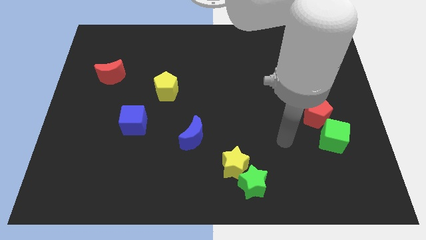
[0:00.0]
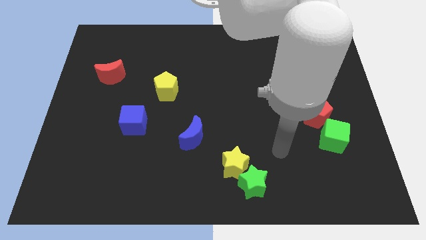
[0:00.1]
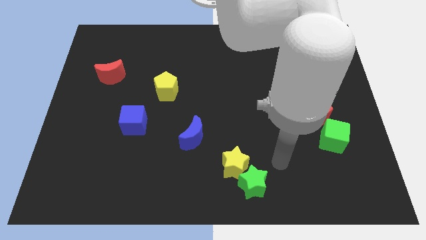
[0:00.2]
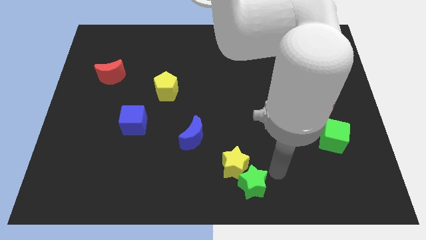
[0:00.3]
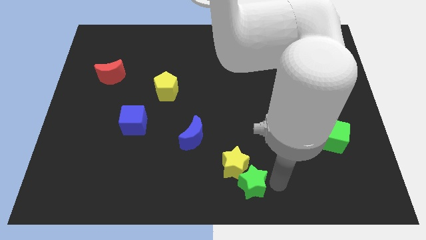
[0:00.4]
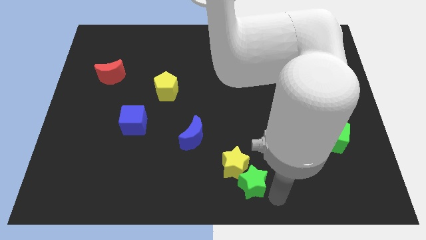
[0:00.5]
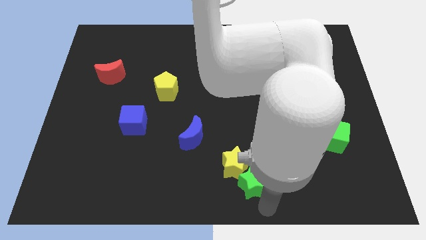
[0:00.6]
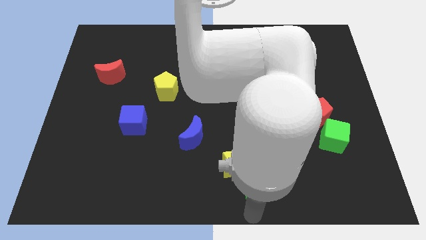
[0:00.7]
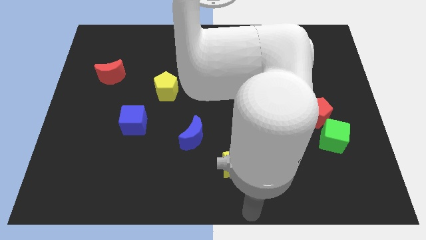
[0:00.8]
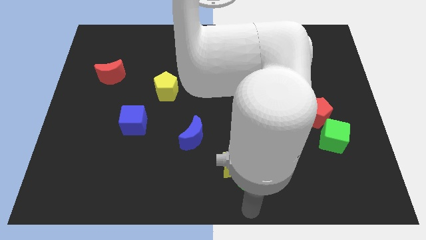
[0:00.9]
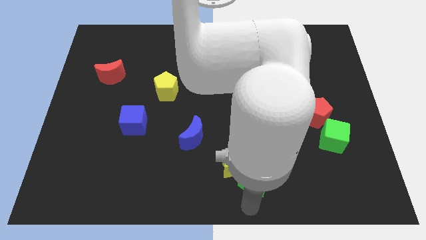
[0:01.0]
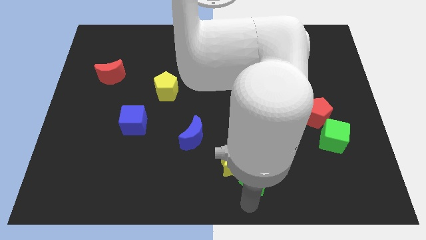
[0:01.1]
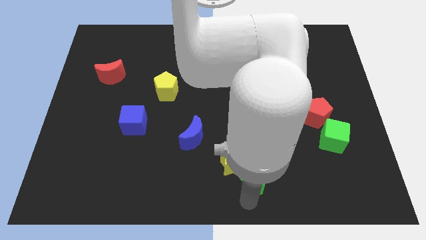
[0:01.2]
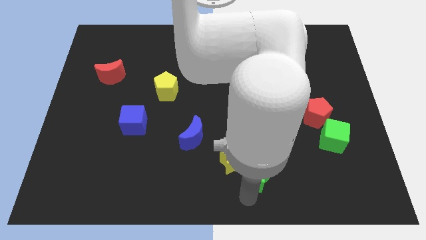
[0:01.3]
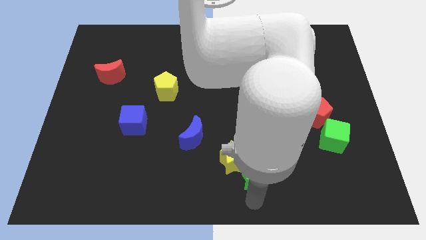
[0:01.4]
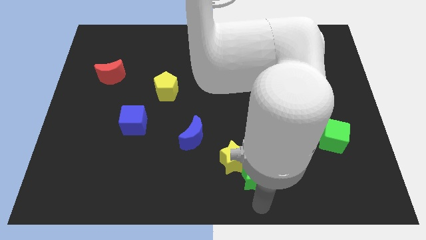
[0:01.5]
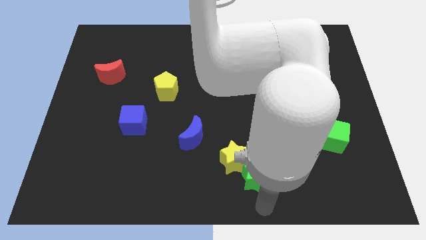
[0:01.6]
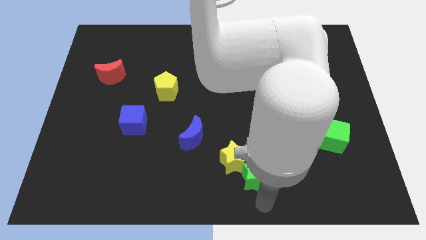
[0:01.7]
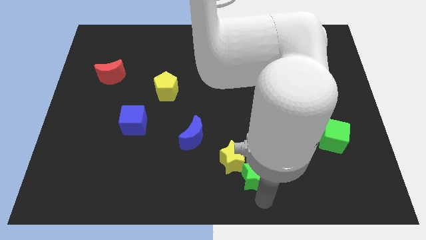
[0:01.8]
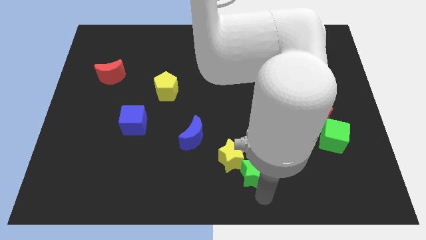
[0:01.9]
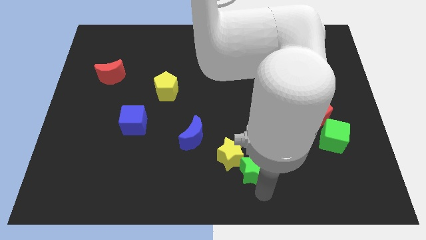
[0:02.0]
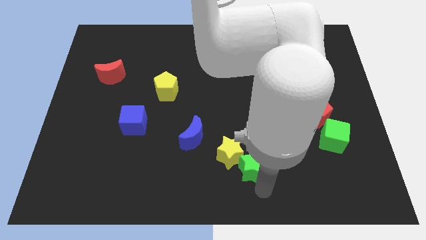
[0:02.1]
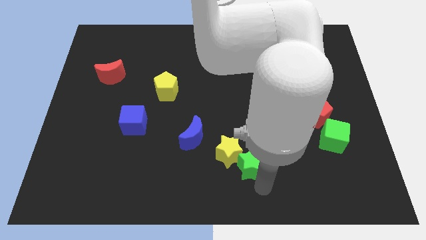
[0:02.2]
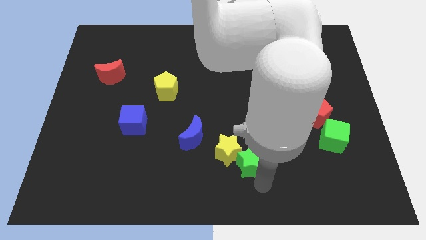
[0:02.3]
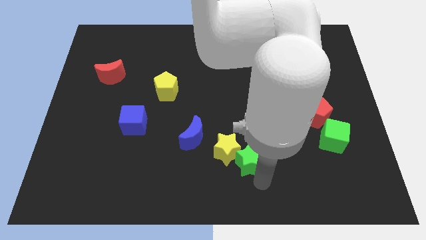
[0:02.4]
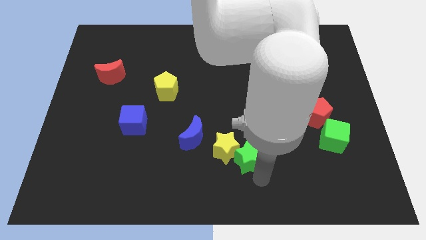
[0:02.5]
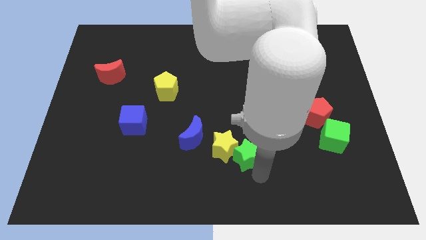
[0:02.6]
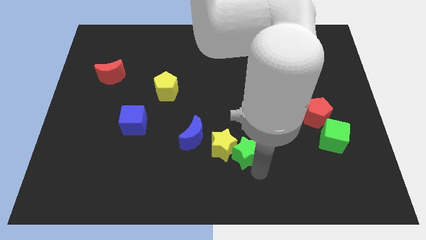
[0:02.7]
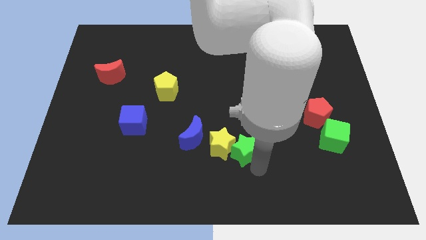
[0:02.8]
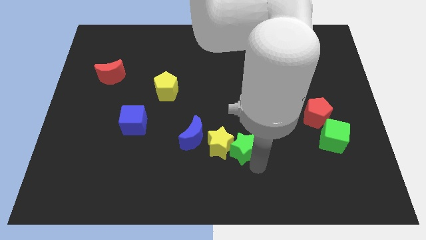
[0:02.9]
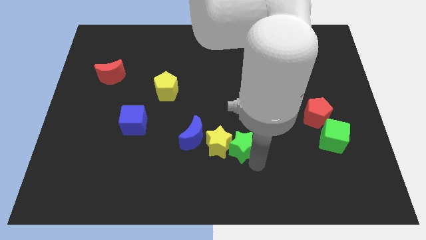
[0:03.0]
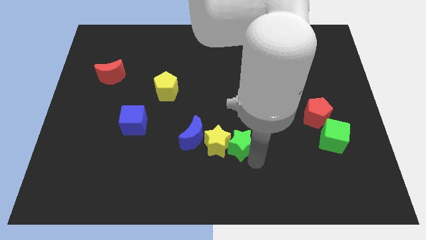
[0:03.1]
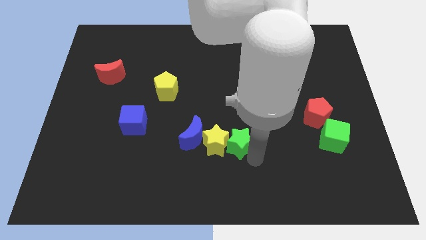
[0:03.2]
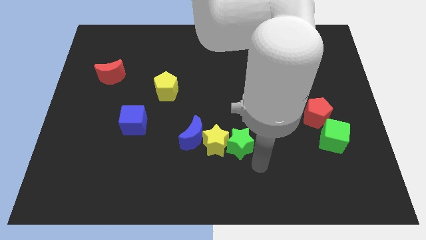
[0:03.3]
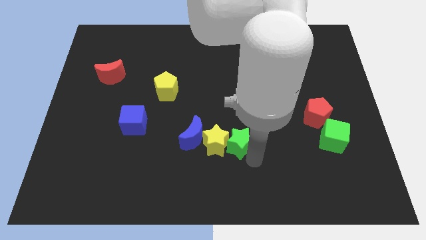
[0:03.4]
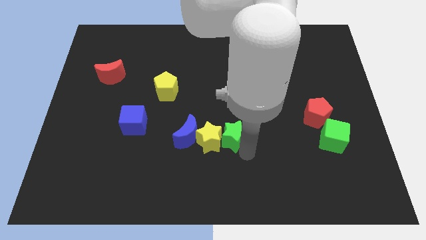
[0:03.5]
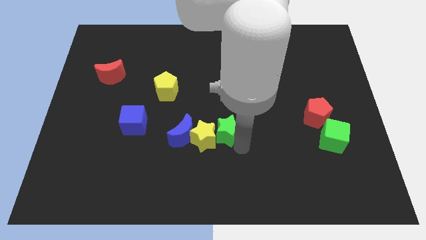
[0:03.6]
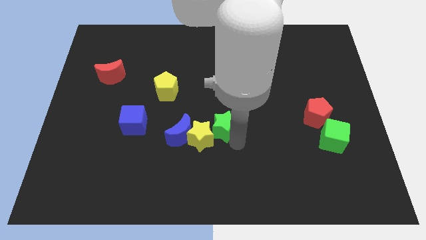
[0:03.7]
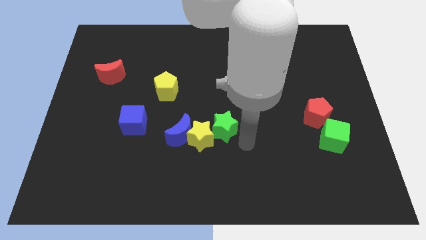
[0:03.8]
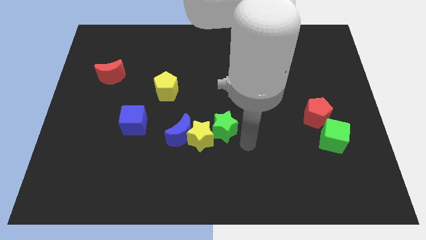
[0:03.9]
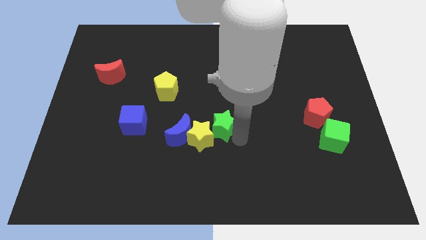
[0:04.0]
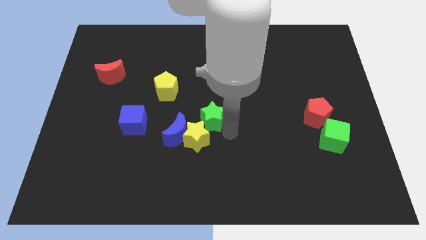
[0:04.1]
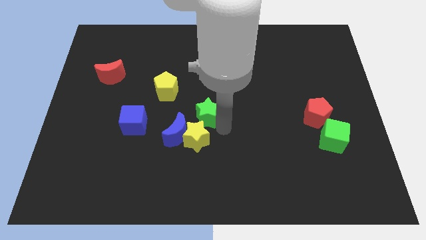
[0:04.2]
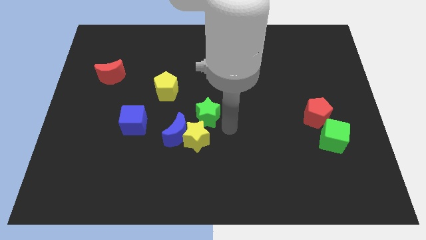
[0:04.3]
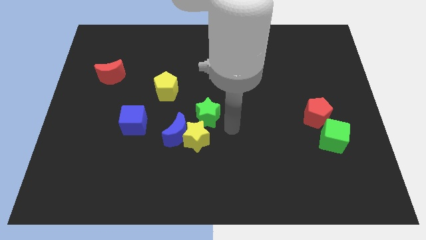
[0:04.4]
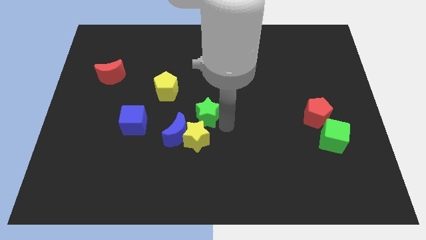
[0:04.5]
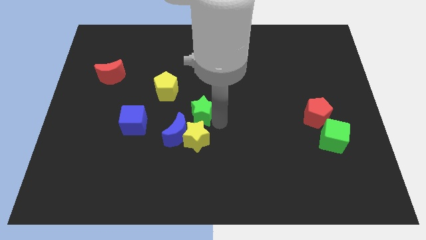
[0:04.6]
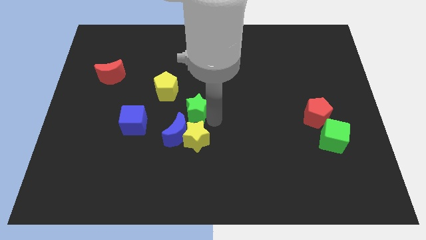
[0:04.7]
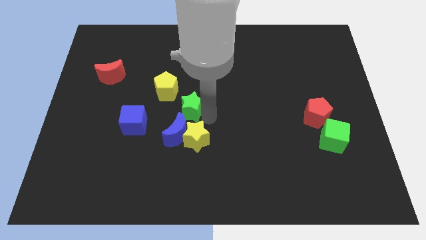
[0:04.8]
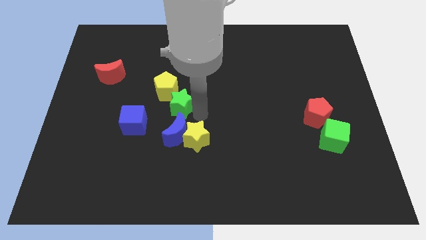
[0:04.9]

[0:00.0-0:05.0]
slide the green star next to the yellow pentagon

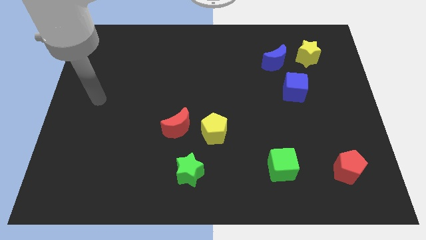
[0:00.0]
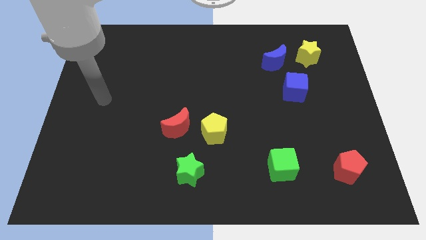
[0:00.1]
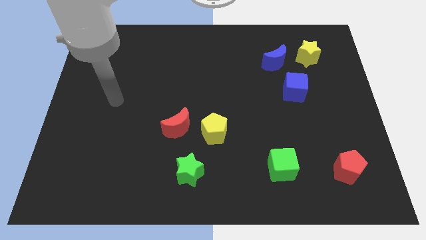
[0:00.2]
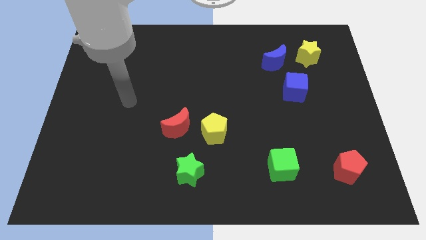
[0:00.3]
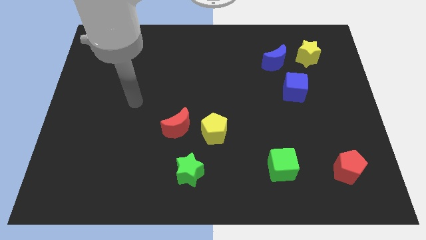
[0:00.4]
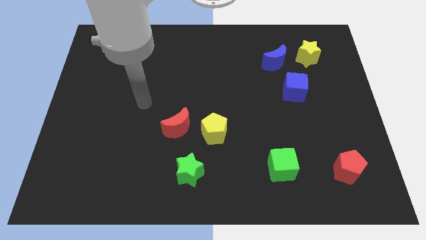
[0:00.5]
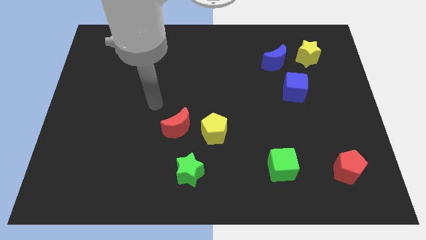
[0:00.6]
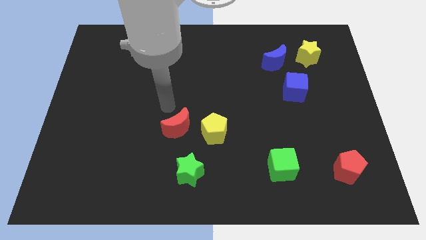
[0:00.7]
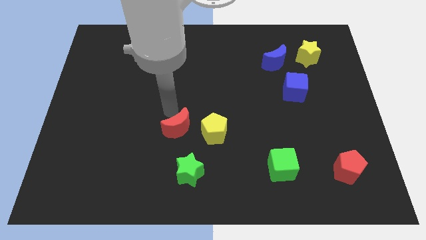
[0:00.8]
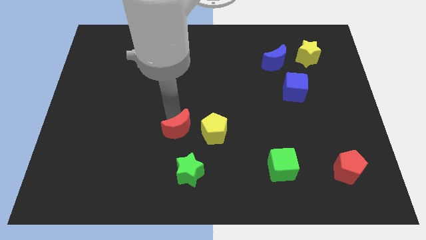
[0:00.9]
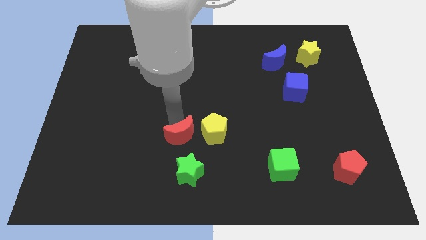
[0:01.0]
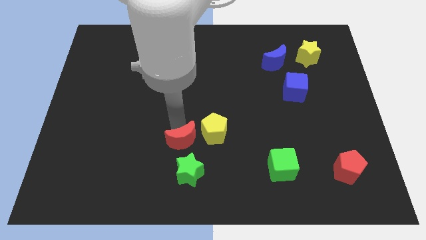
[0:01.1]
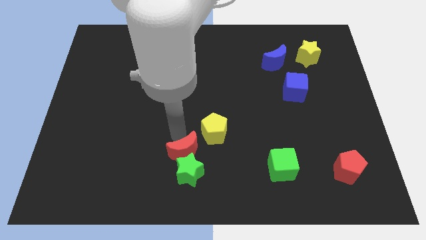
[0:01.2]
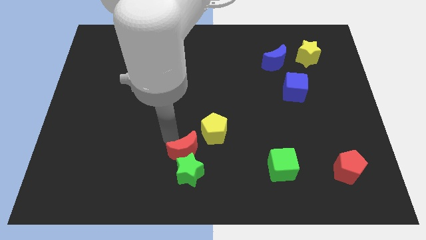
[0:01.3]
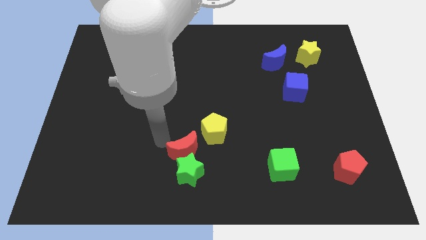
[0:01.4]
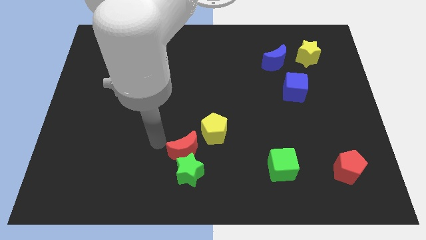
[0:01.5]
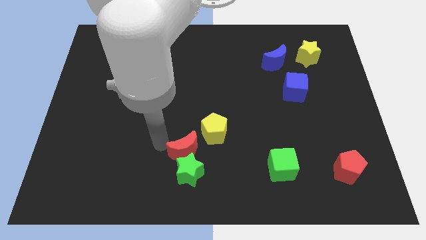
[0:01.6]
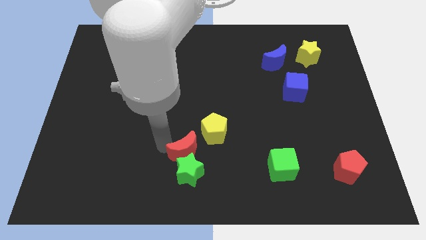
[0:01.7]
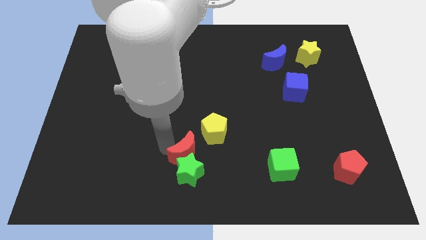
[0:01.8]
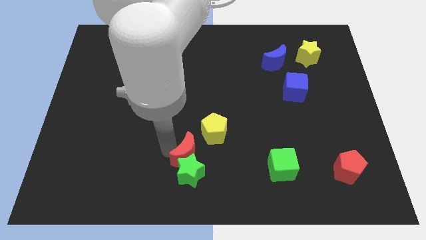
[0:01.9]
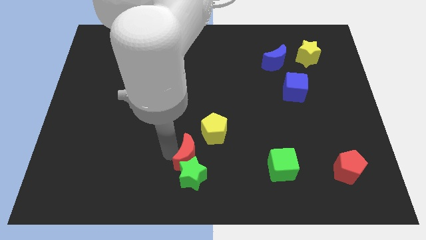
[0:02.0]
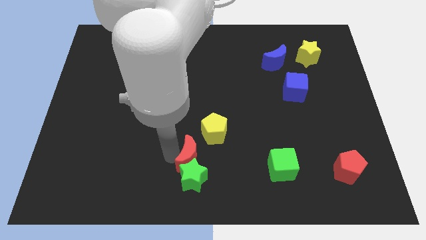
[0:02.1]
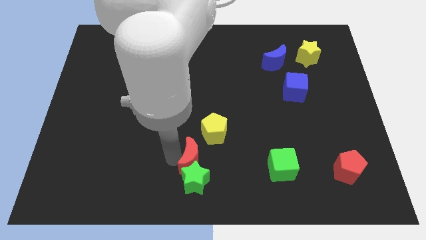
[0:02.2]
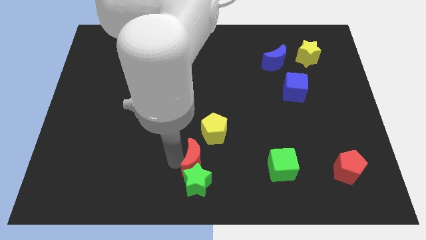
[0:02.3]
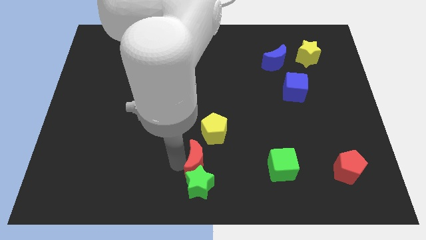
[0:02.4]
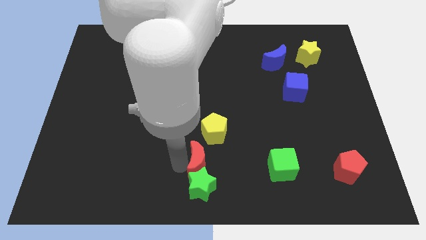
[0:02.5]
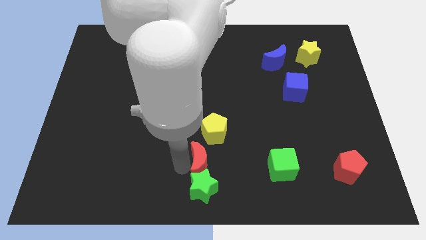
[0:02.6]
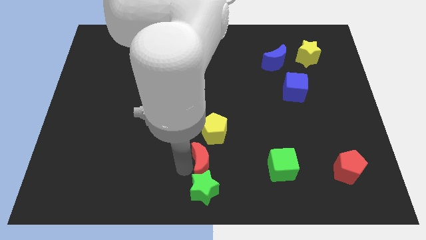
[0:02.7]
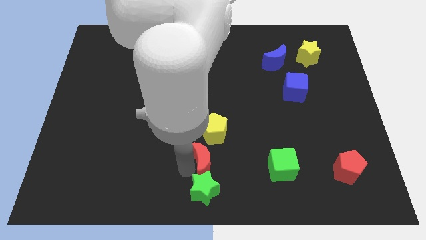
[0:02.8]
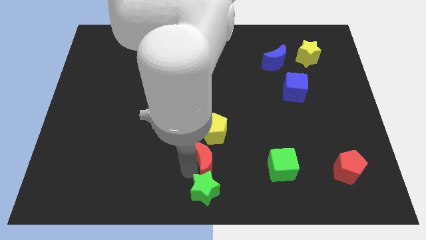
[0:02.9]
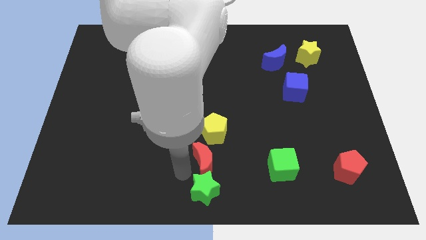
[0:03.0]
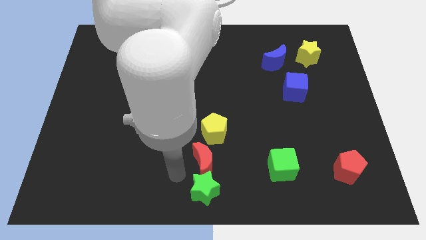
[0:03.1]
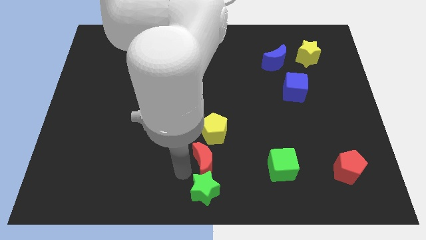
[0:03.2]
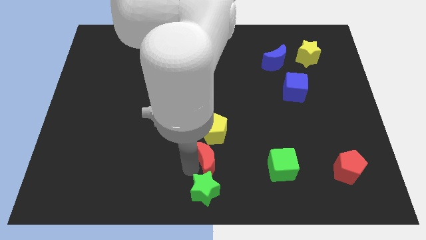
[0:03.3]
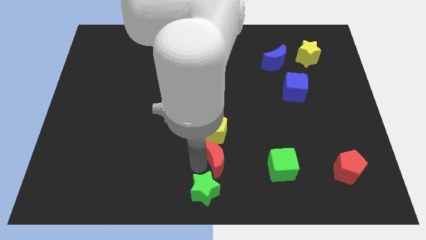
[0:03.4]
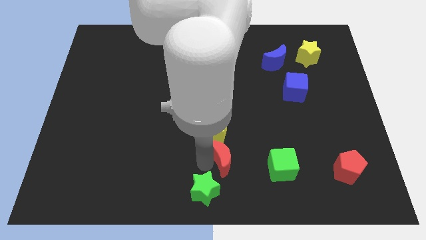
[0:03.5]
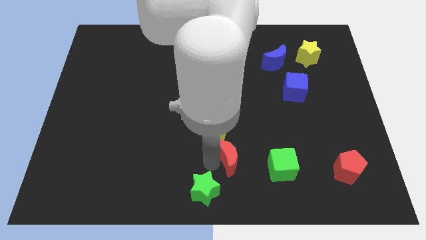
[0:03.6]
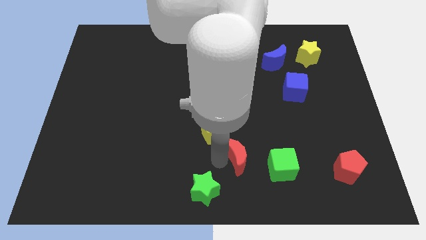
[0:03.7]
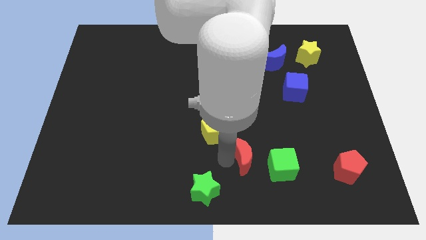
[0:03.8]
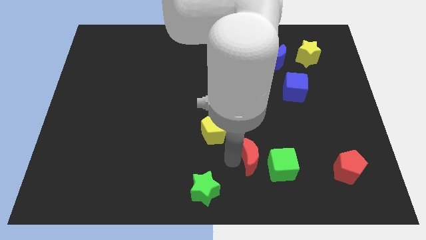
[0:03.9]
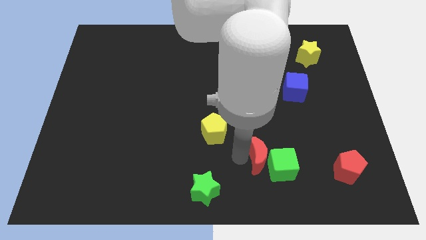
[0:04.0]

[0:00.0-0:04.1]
slide the red moon next to the green cube
